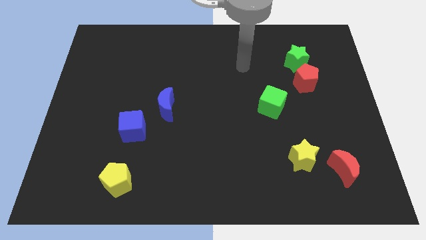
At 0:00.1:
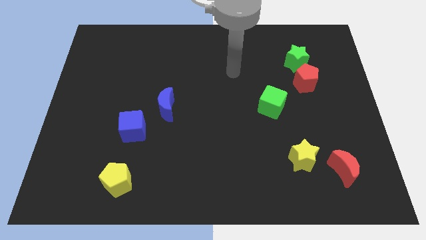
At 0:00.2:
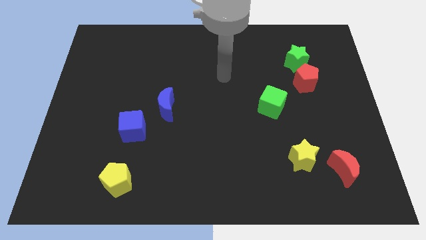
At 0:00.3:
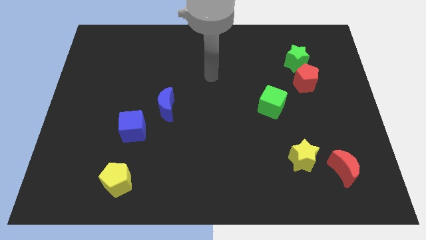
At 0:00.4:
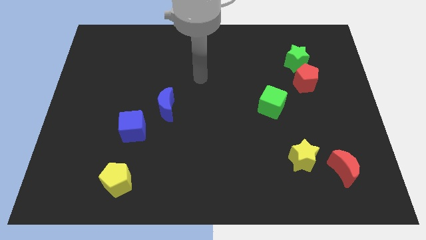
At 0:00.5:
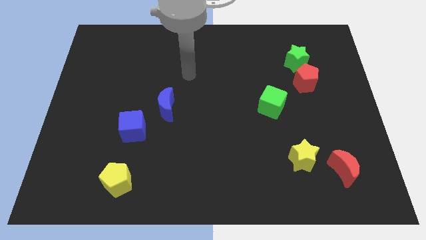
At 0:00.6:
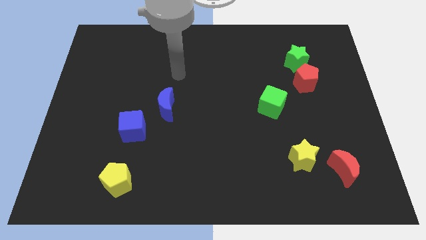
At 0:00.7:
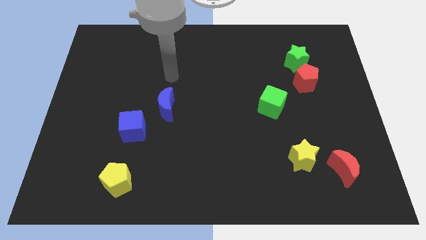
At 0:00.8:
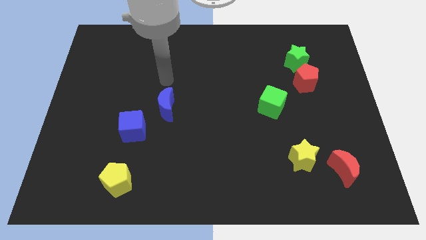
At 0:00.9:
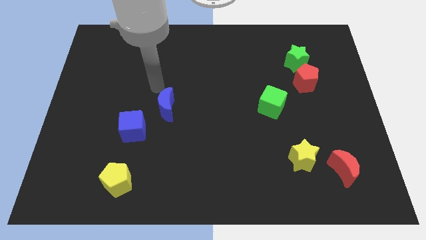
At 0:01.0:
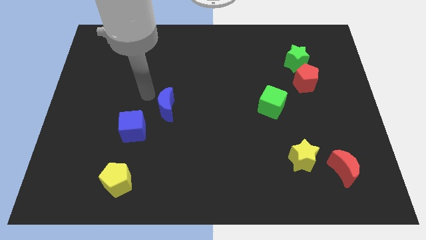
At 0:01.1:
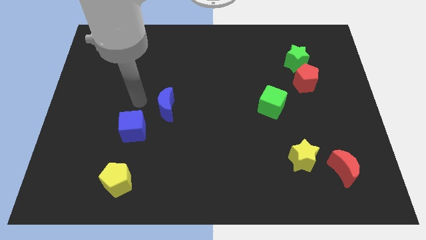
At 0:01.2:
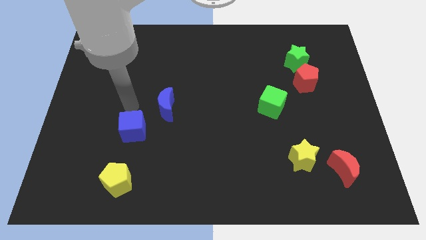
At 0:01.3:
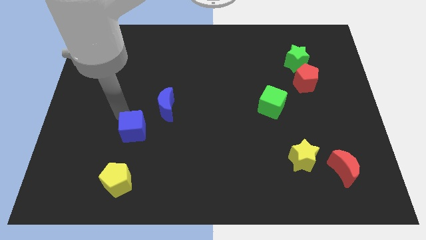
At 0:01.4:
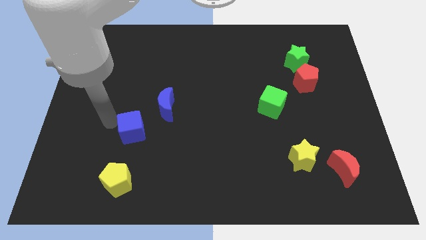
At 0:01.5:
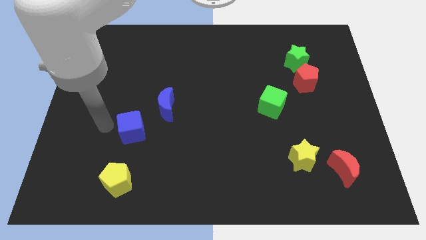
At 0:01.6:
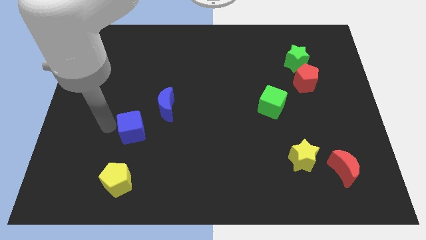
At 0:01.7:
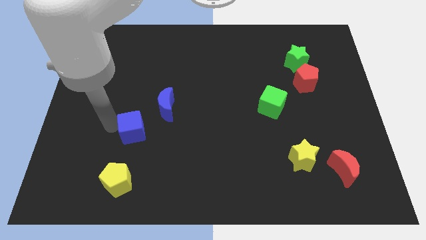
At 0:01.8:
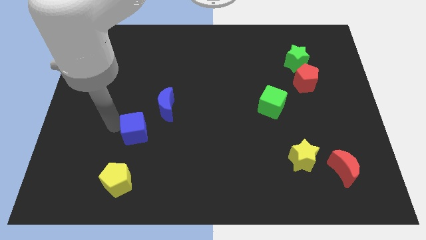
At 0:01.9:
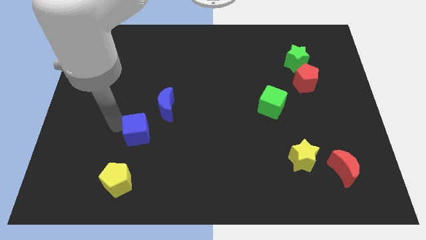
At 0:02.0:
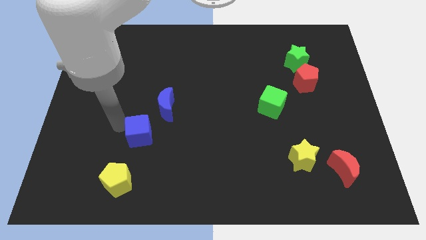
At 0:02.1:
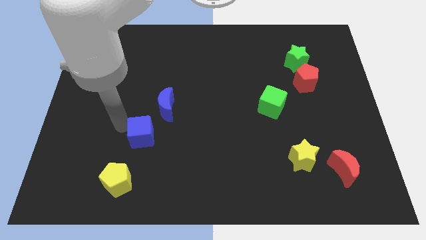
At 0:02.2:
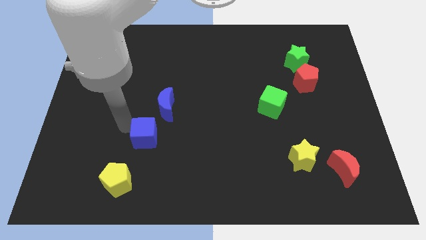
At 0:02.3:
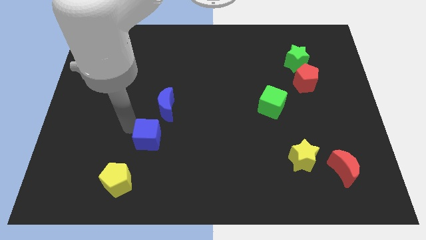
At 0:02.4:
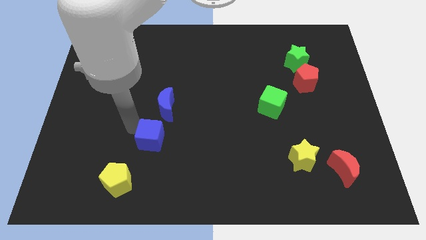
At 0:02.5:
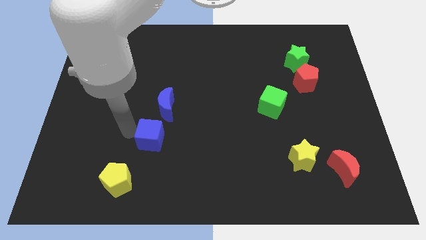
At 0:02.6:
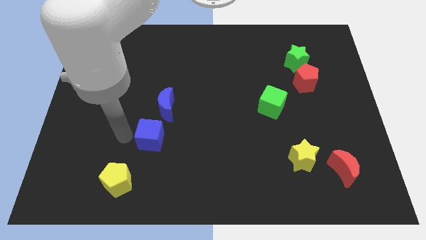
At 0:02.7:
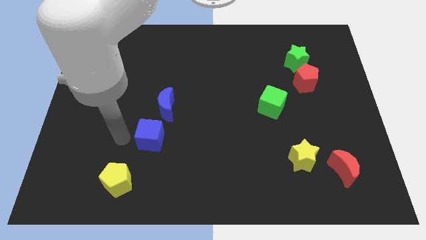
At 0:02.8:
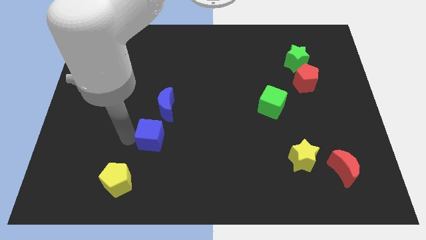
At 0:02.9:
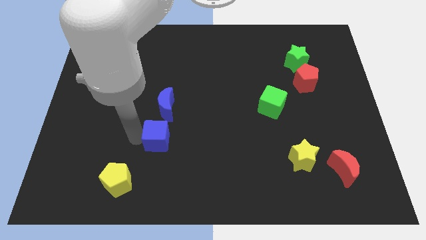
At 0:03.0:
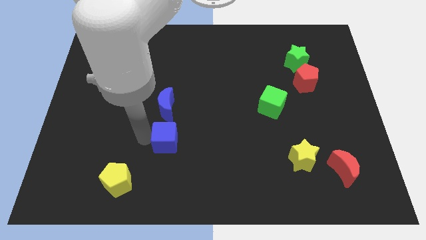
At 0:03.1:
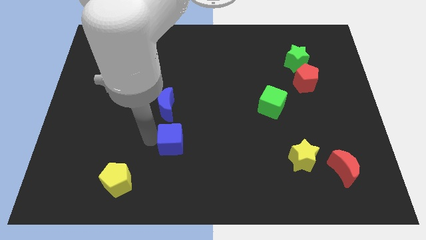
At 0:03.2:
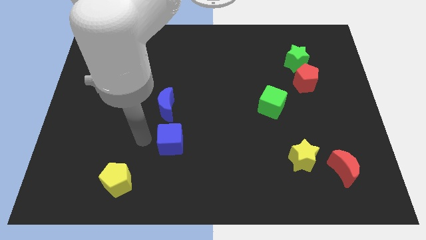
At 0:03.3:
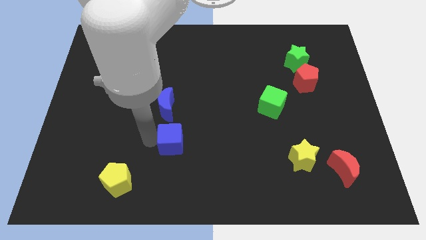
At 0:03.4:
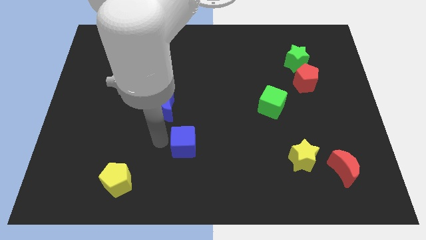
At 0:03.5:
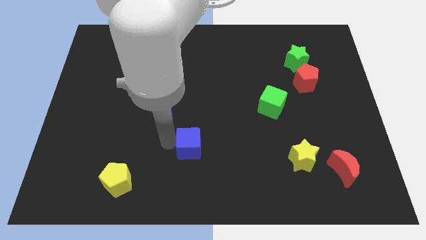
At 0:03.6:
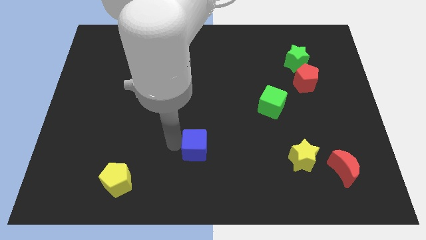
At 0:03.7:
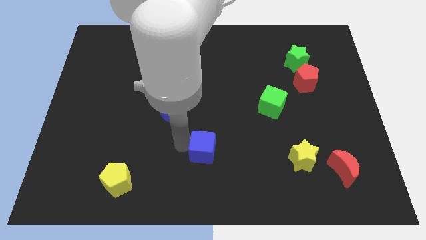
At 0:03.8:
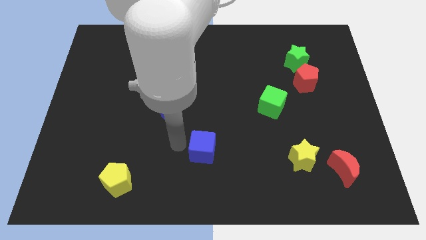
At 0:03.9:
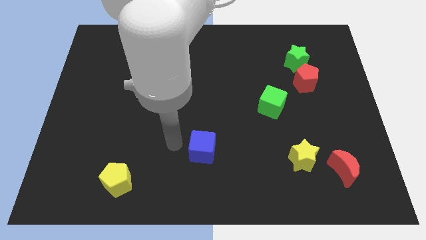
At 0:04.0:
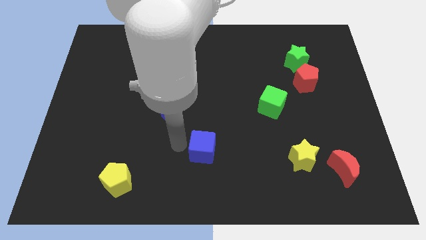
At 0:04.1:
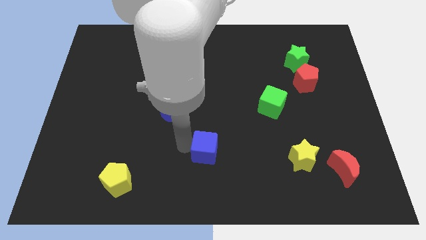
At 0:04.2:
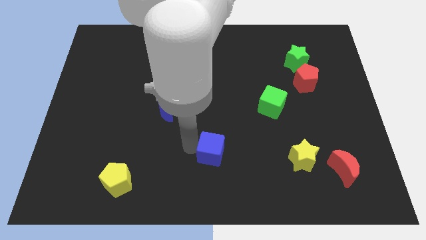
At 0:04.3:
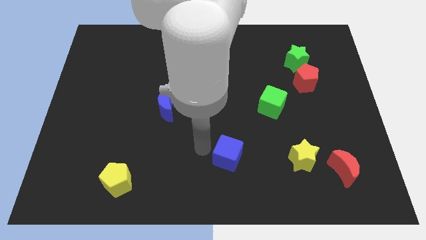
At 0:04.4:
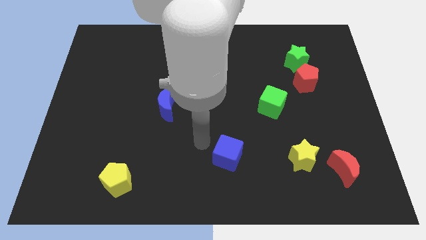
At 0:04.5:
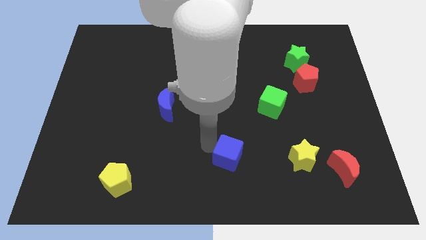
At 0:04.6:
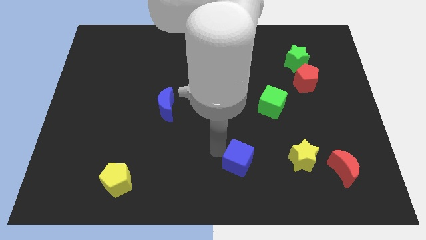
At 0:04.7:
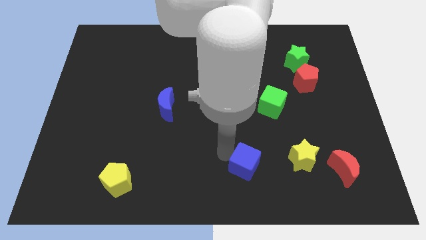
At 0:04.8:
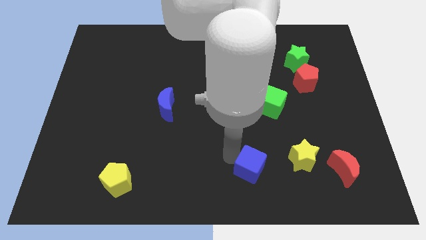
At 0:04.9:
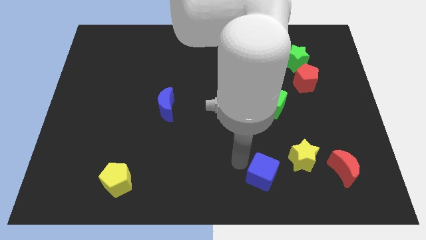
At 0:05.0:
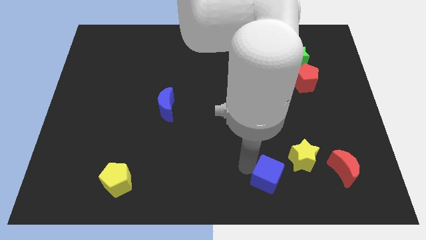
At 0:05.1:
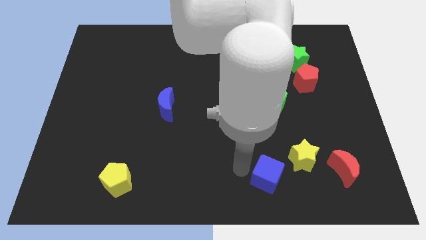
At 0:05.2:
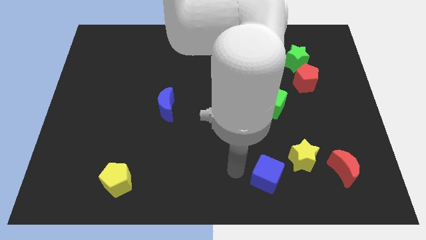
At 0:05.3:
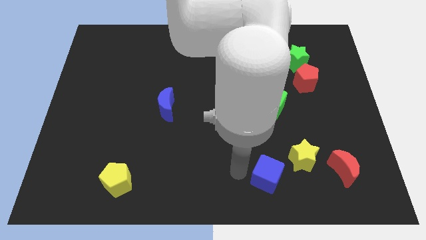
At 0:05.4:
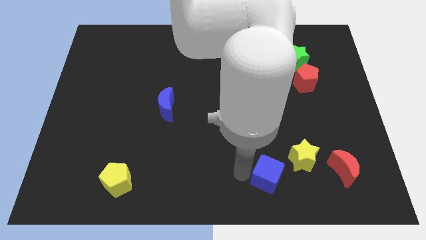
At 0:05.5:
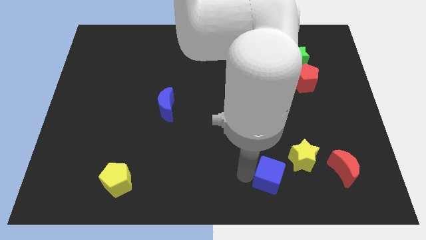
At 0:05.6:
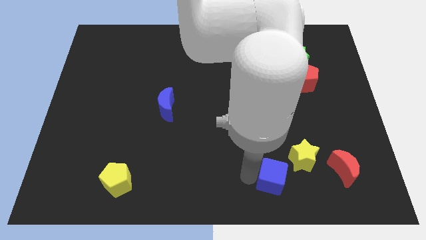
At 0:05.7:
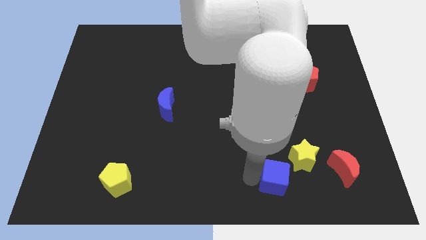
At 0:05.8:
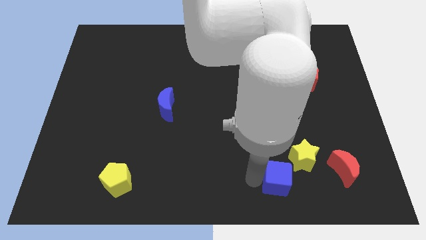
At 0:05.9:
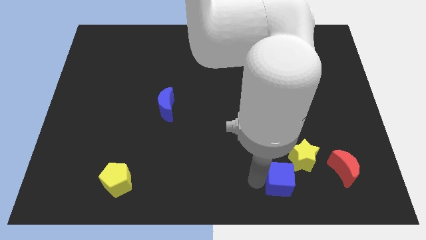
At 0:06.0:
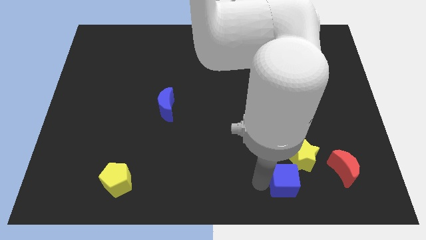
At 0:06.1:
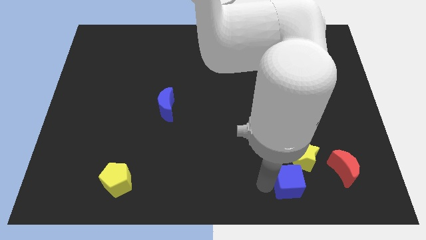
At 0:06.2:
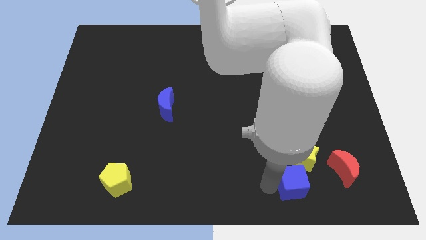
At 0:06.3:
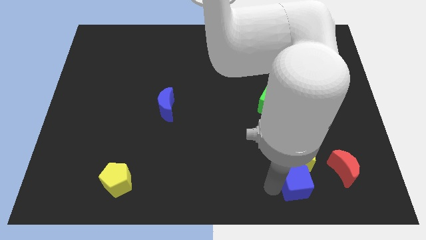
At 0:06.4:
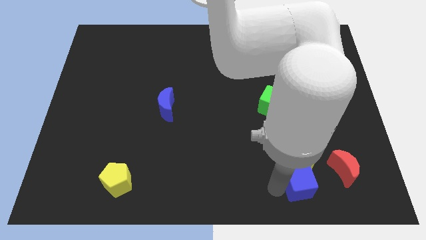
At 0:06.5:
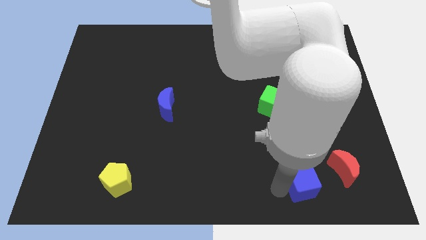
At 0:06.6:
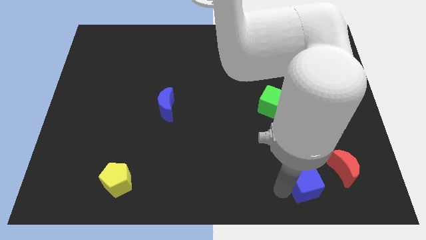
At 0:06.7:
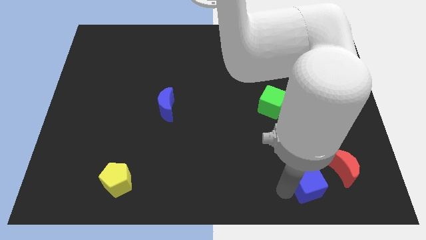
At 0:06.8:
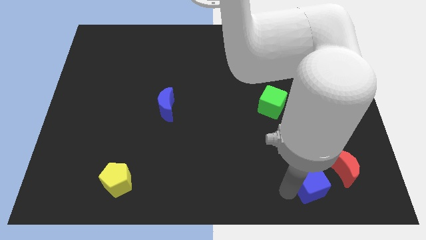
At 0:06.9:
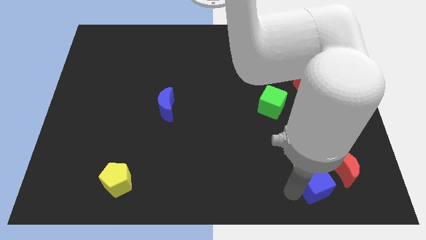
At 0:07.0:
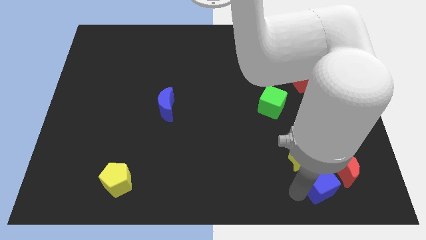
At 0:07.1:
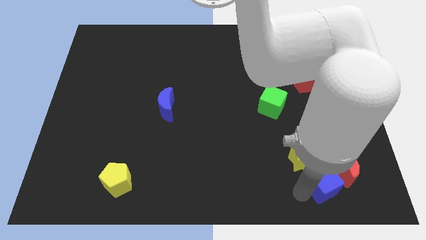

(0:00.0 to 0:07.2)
push the blue cube towards the red moon
